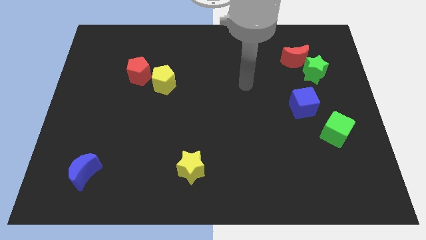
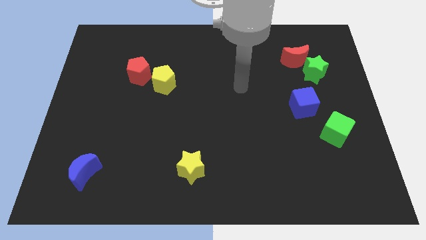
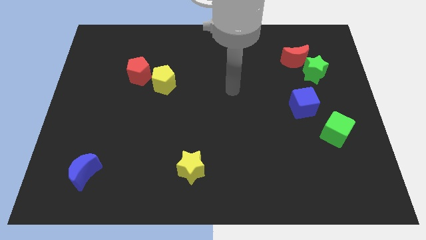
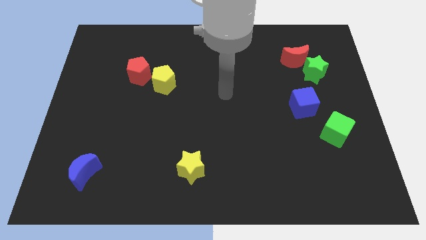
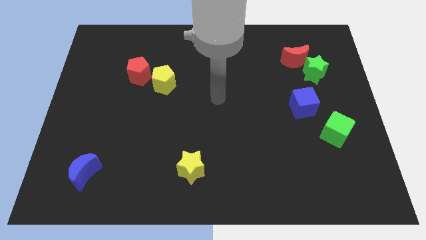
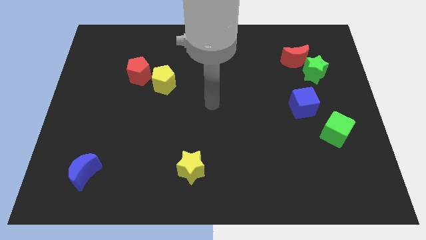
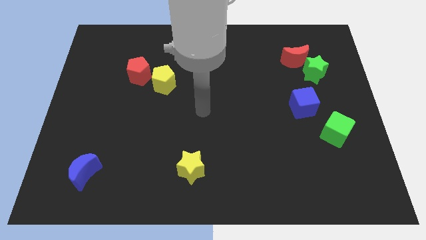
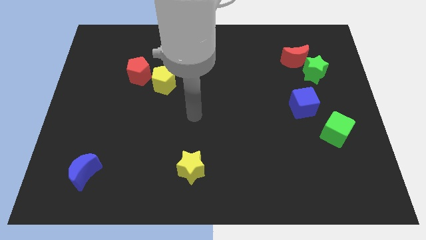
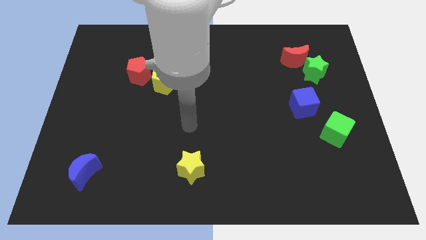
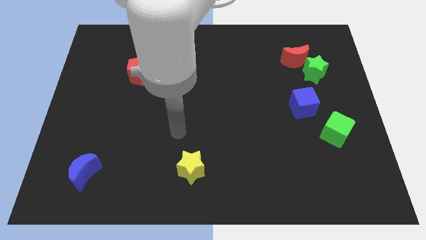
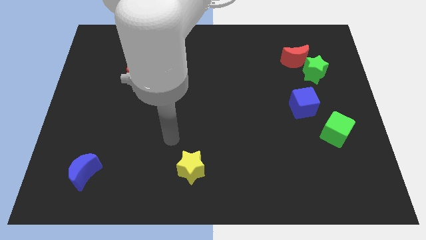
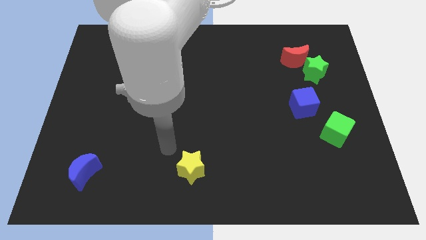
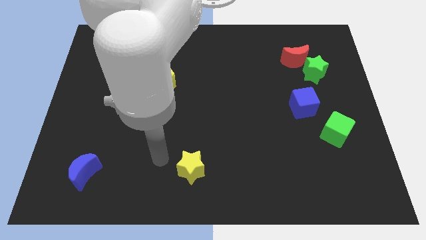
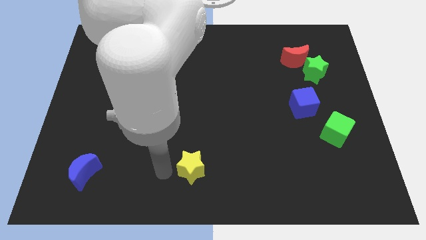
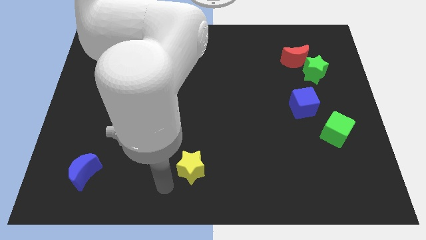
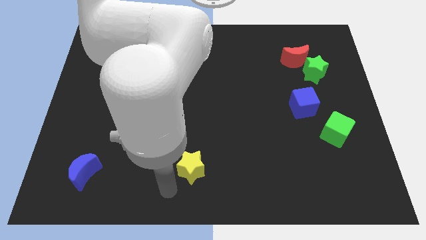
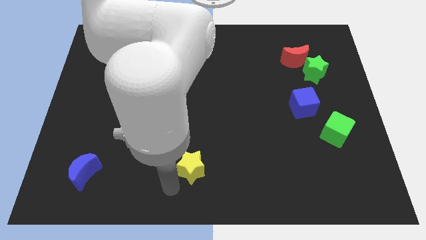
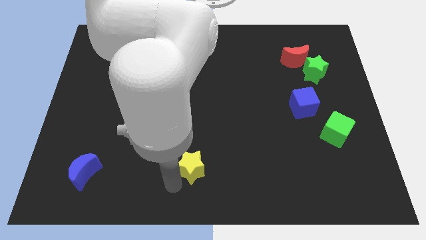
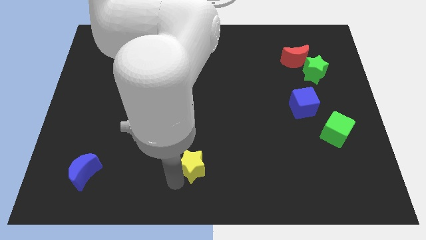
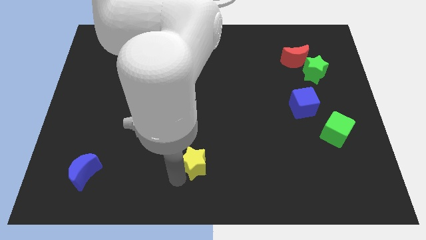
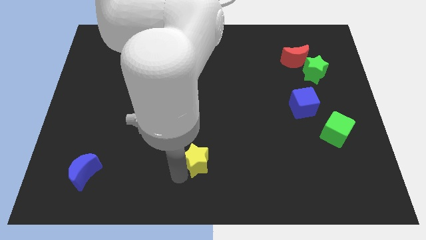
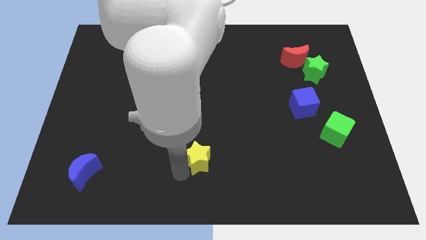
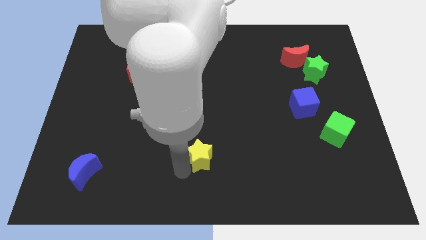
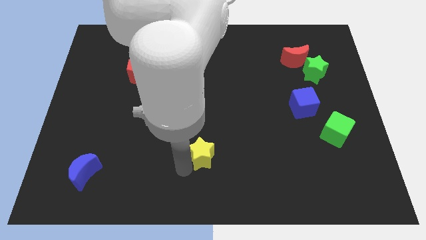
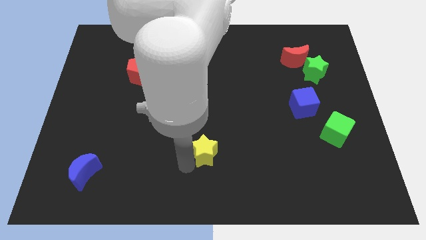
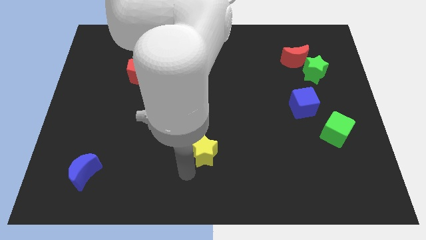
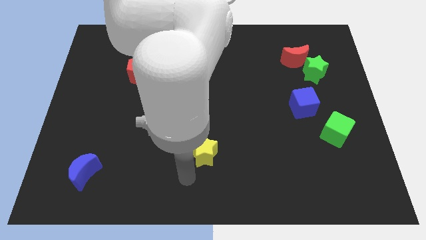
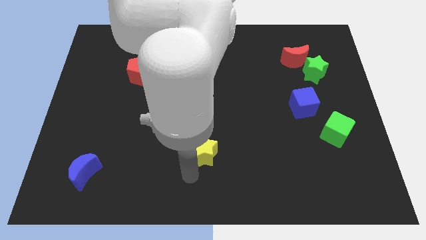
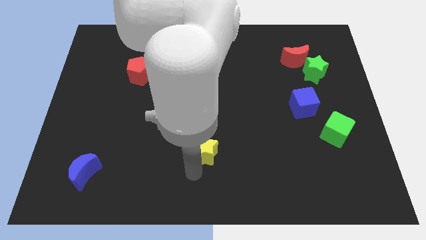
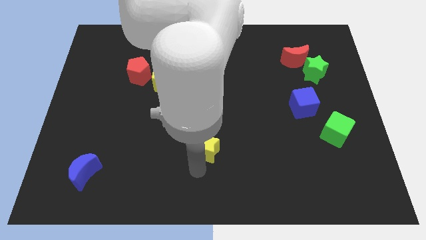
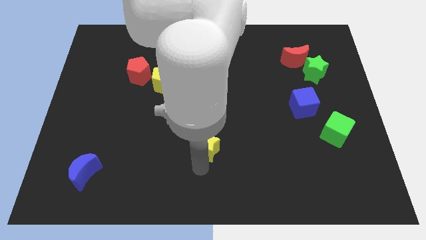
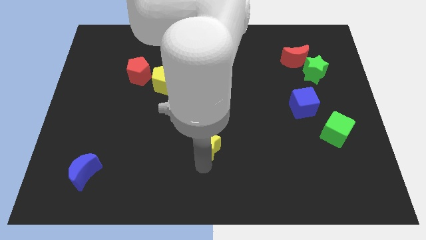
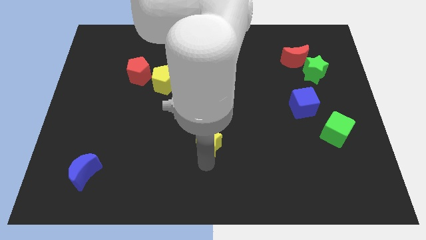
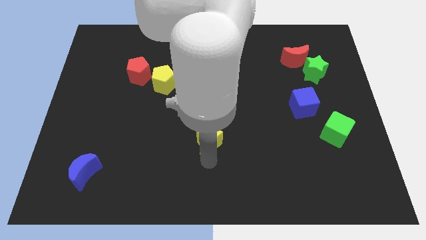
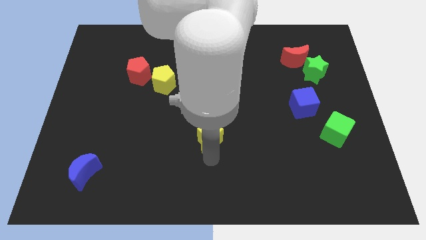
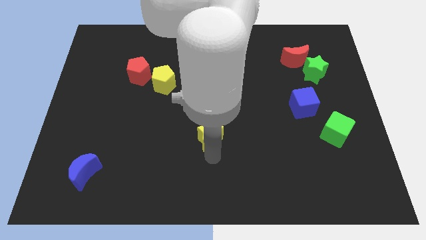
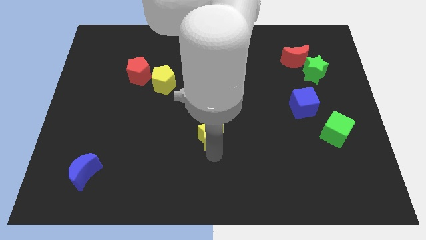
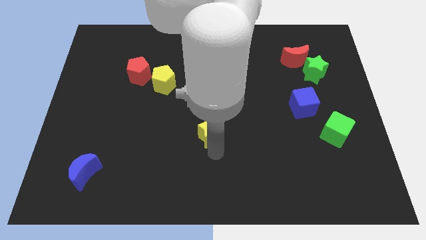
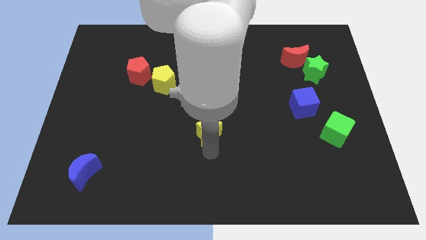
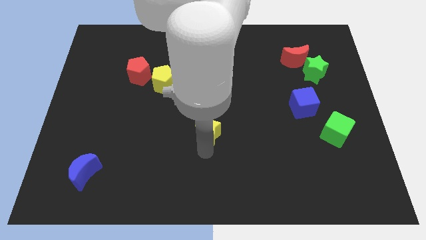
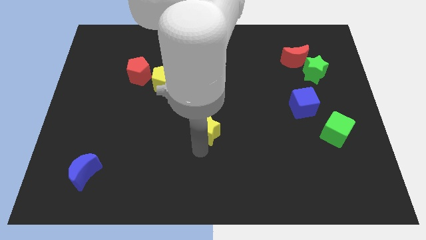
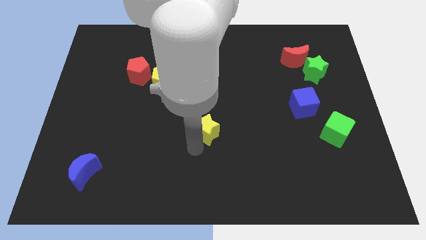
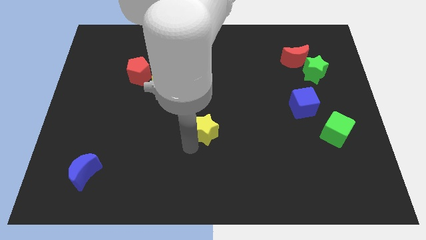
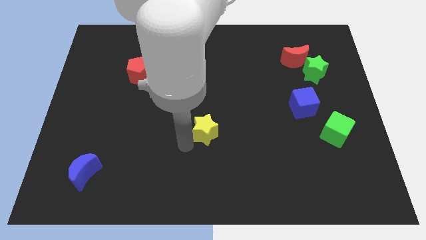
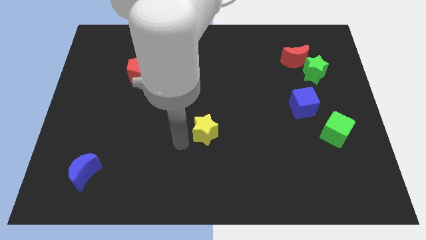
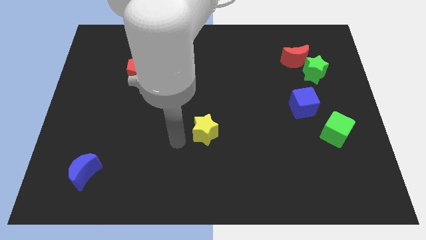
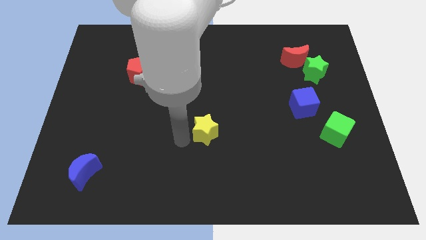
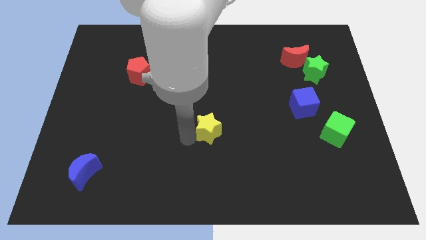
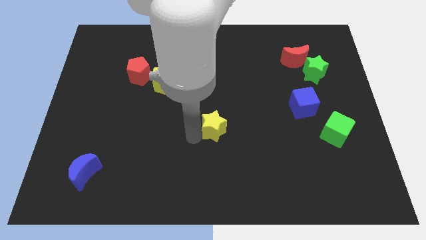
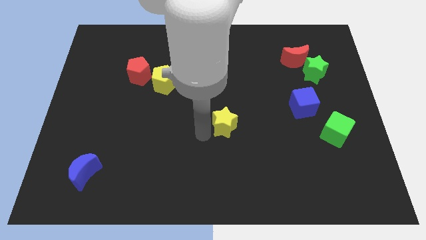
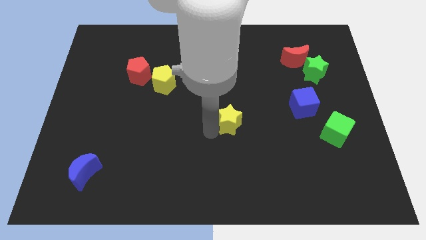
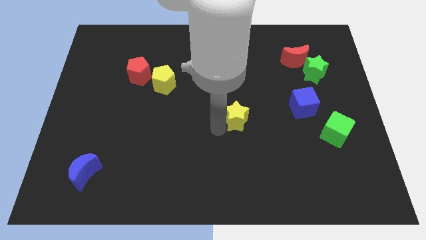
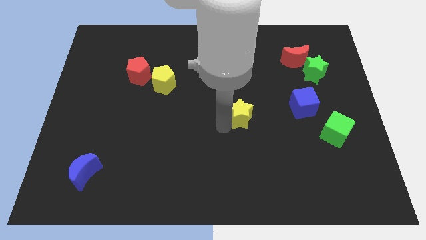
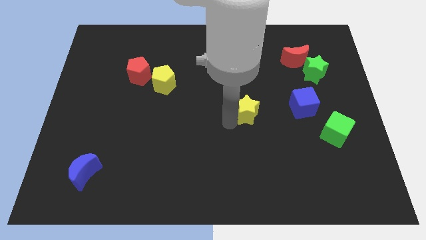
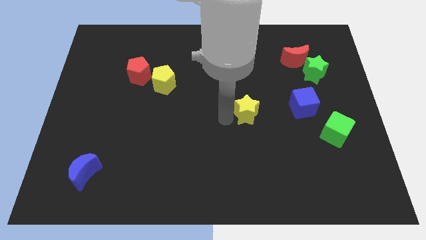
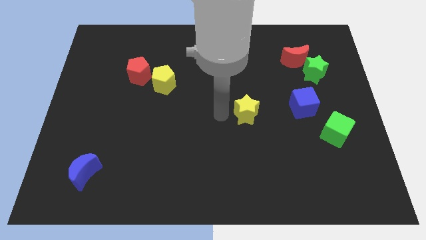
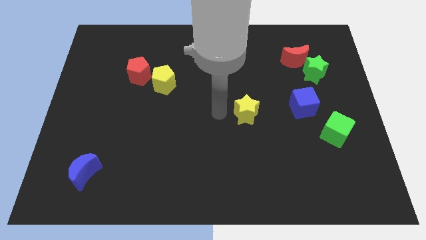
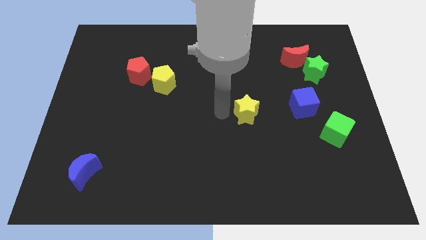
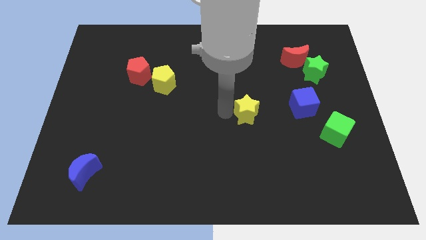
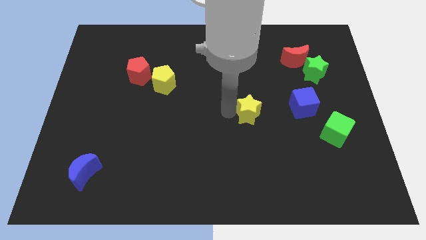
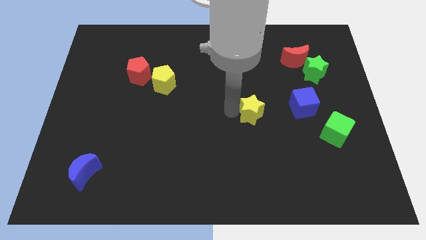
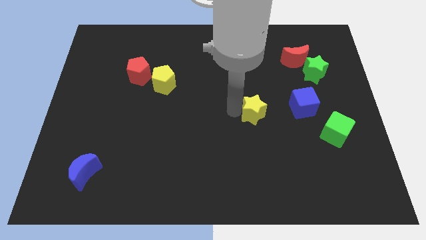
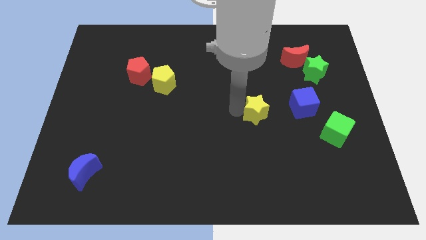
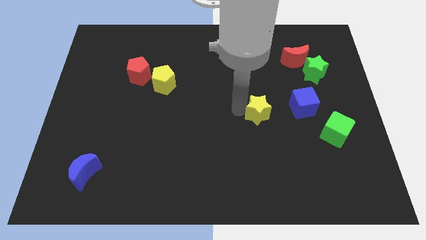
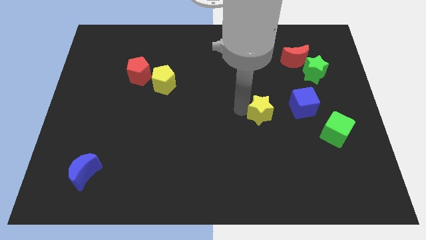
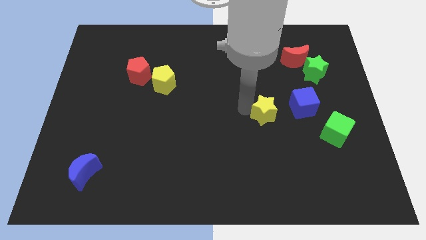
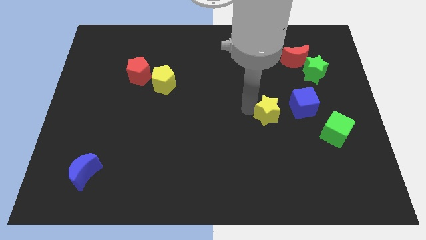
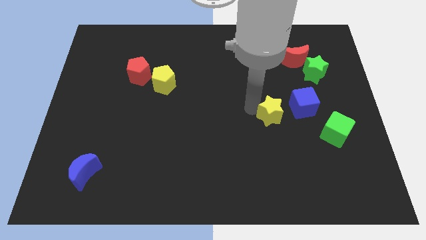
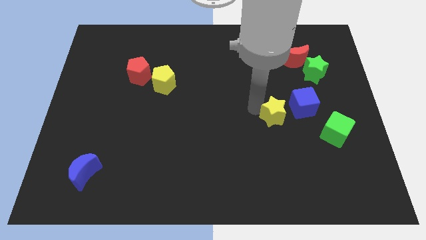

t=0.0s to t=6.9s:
push the yellow star to the left side of the green cube

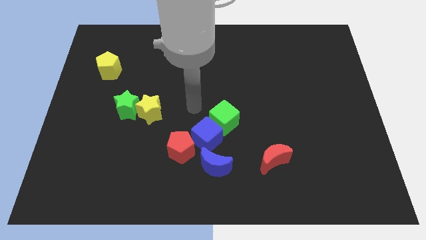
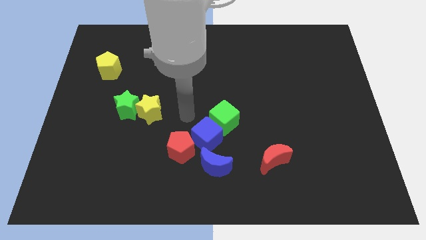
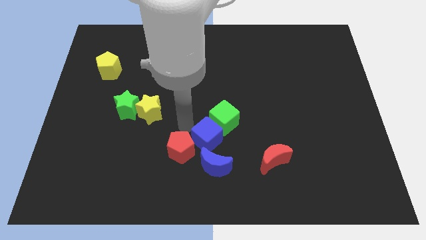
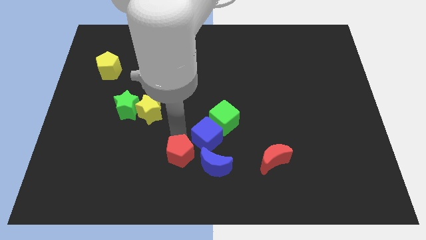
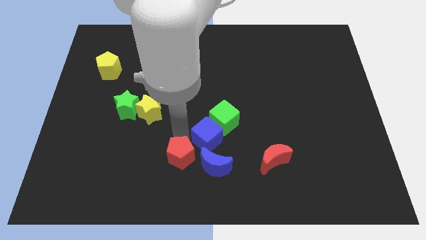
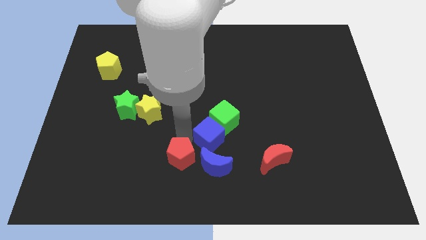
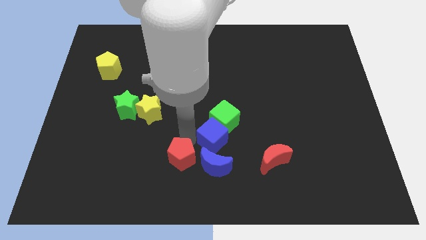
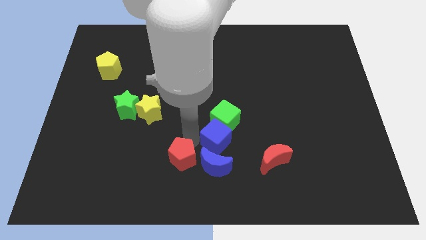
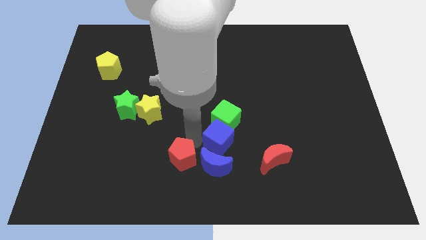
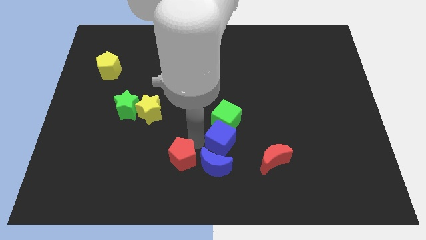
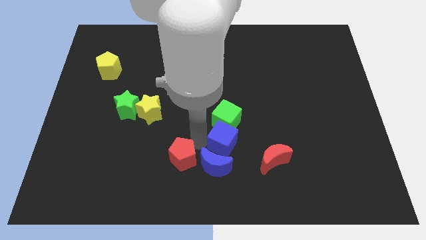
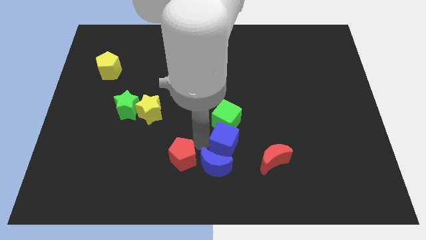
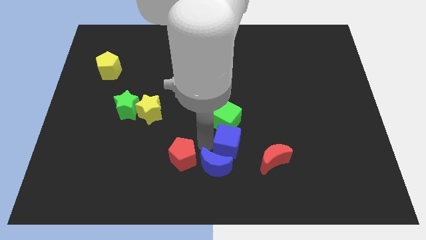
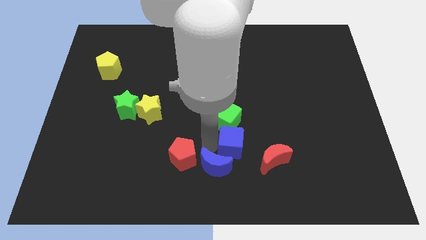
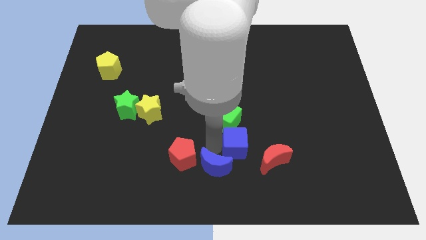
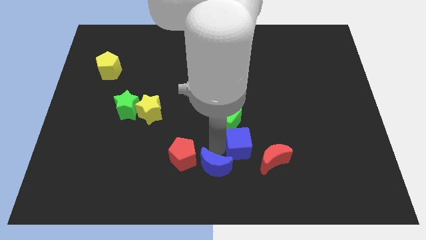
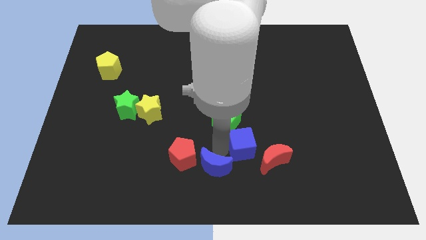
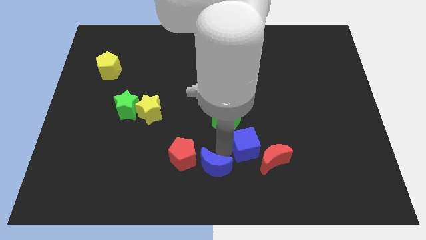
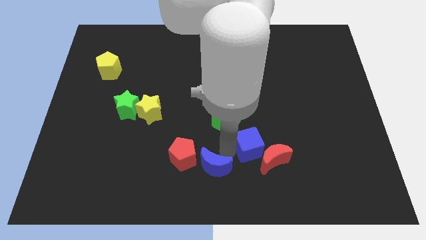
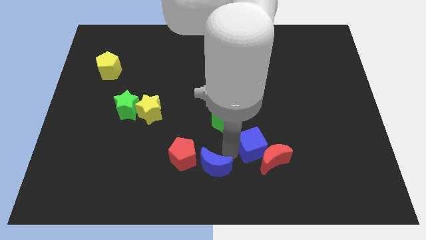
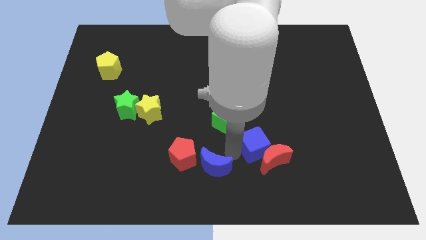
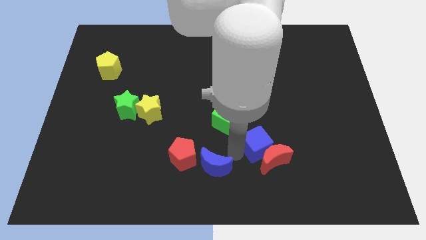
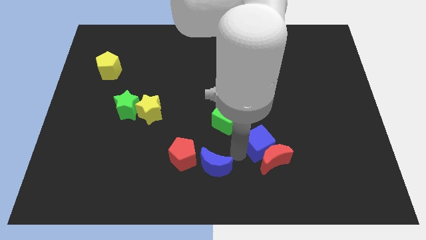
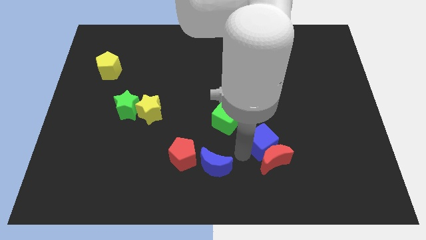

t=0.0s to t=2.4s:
slide the blue cube to the top right side of the red moon
